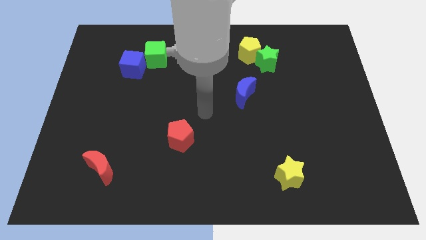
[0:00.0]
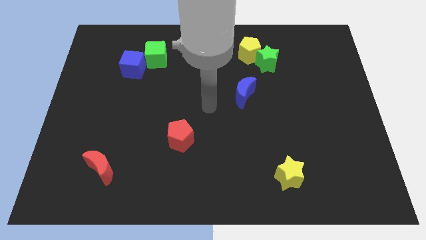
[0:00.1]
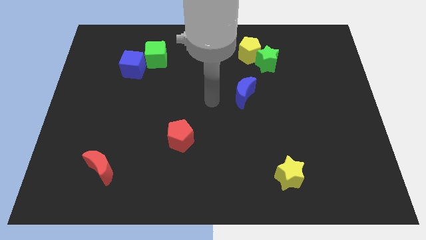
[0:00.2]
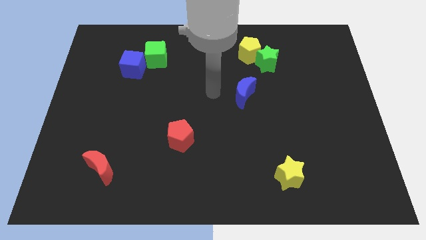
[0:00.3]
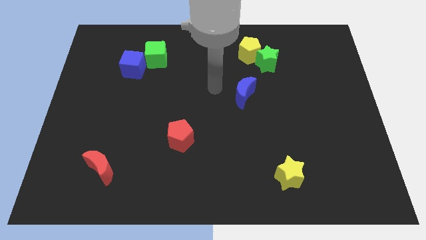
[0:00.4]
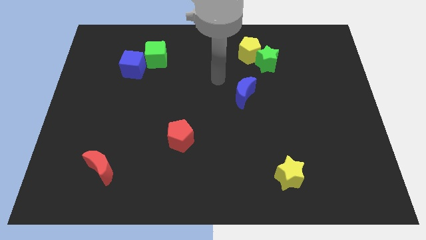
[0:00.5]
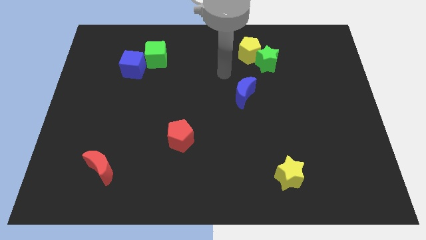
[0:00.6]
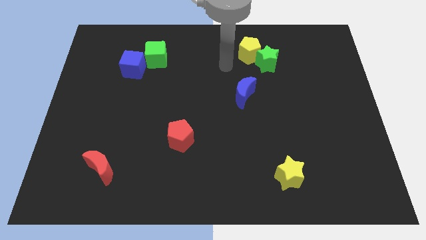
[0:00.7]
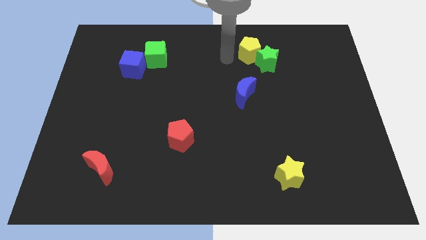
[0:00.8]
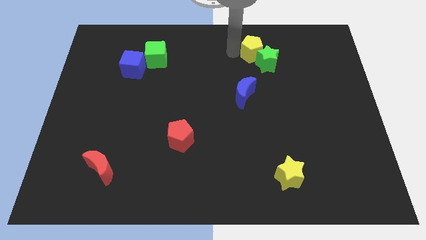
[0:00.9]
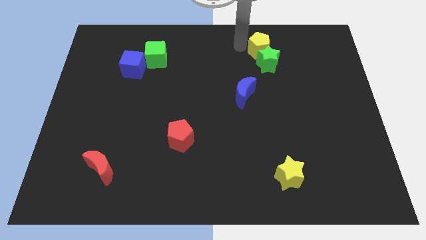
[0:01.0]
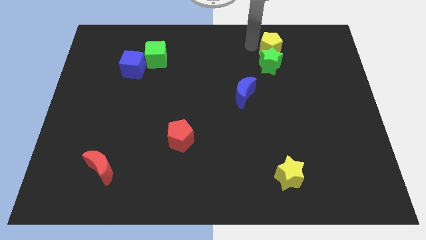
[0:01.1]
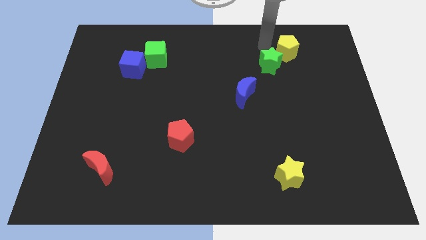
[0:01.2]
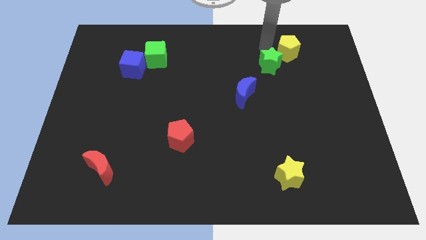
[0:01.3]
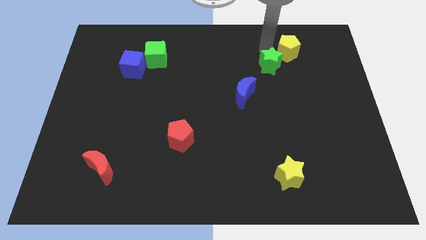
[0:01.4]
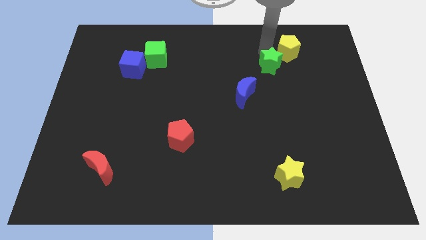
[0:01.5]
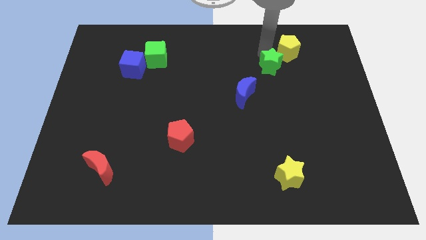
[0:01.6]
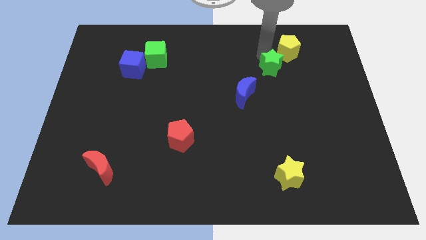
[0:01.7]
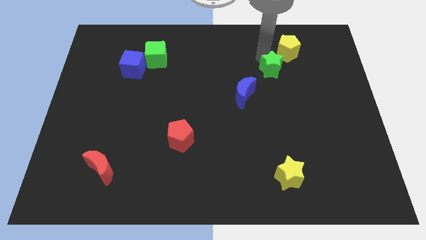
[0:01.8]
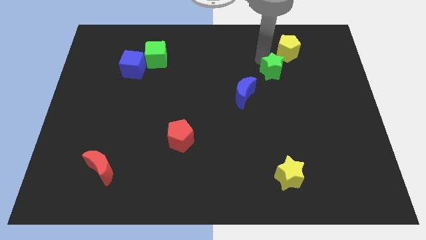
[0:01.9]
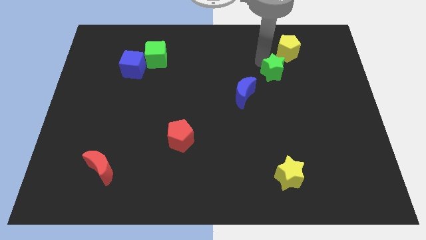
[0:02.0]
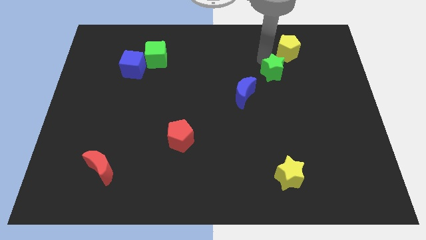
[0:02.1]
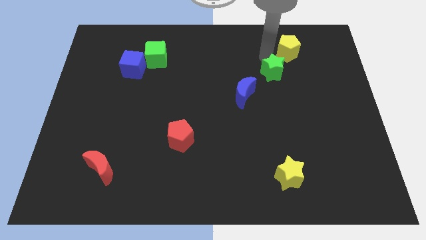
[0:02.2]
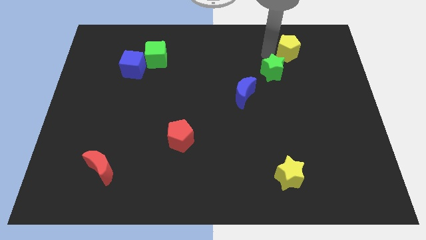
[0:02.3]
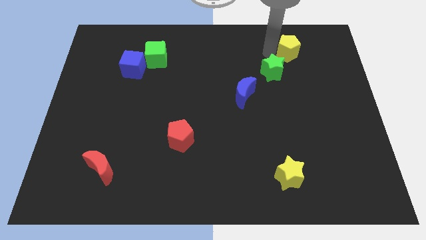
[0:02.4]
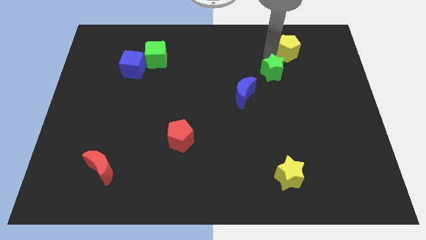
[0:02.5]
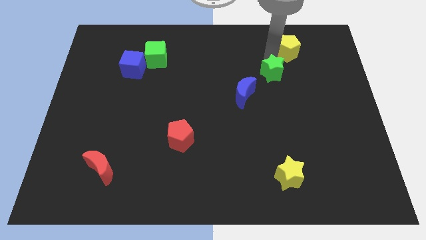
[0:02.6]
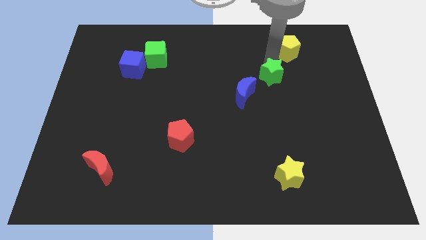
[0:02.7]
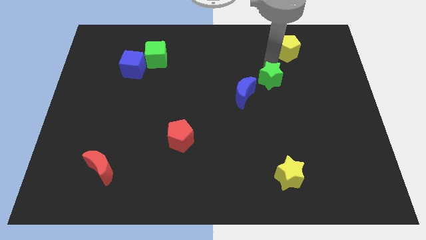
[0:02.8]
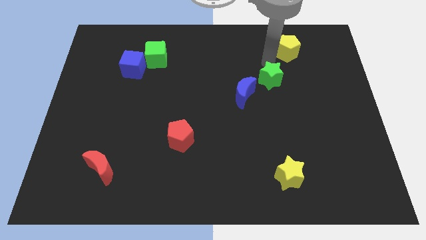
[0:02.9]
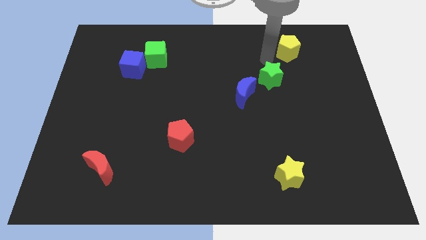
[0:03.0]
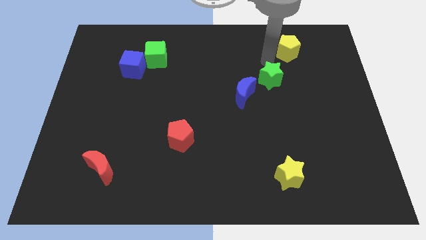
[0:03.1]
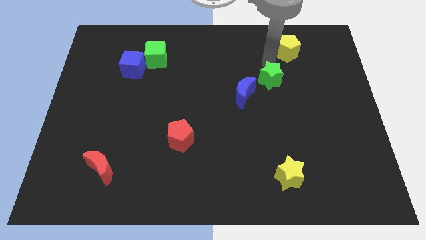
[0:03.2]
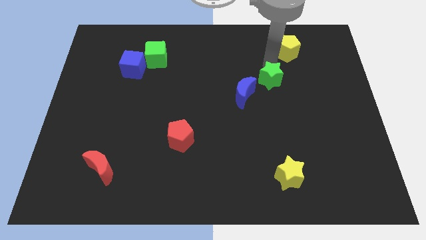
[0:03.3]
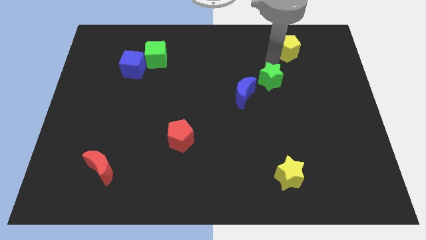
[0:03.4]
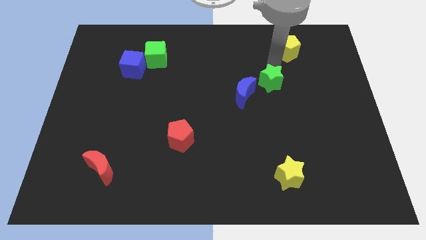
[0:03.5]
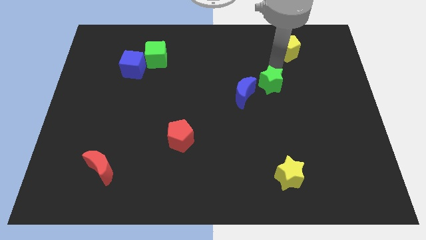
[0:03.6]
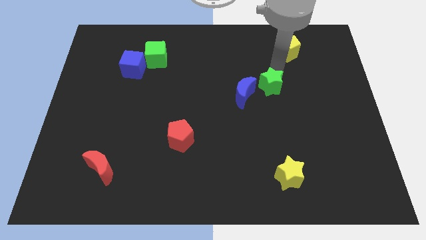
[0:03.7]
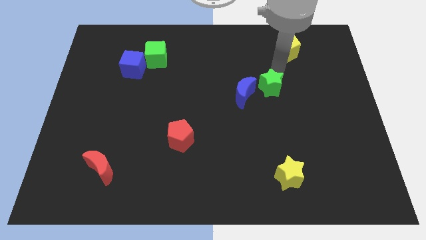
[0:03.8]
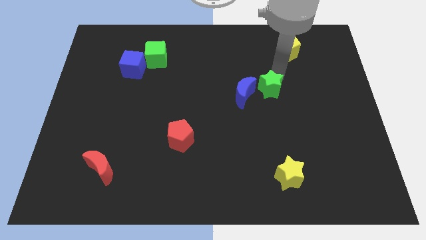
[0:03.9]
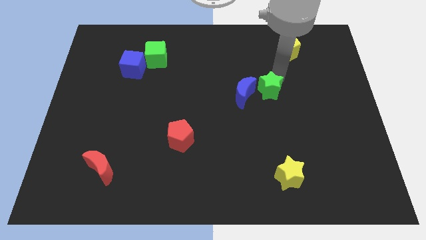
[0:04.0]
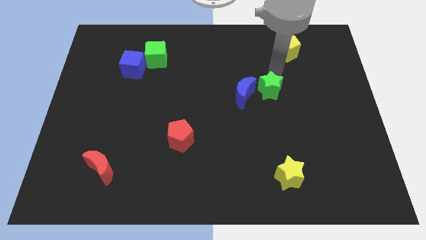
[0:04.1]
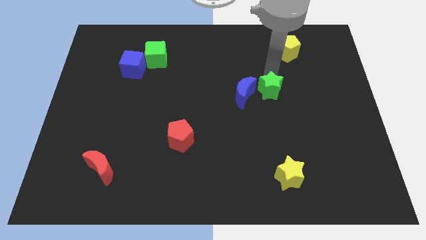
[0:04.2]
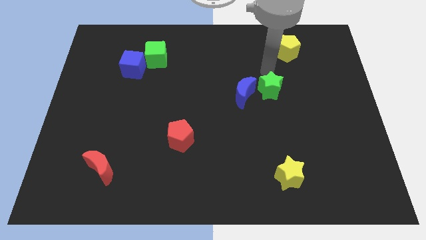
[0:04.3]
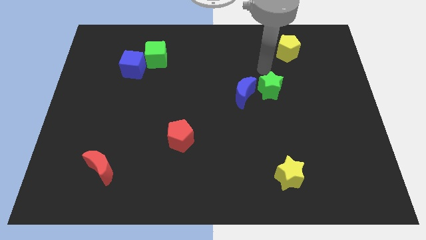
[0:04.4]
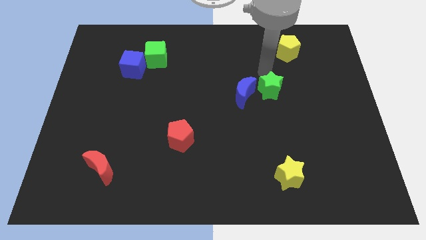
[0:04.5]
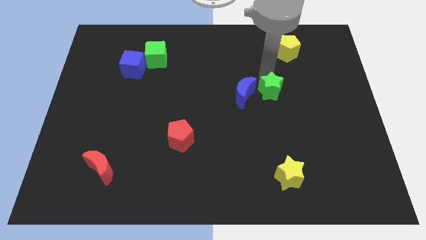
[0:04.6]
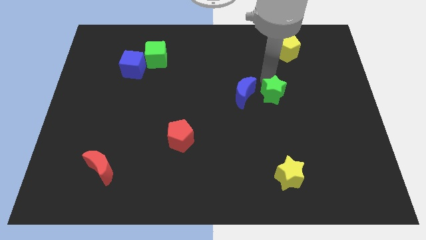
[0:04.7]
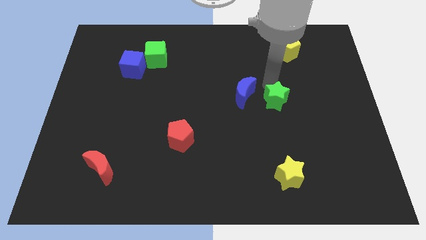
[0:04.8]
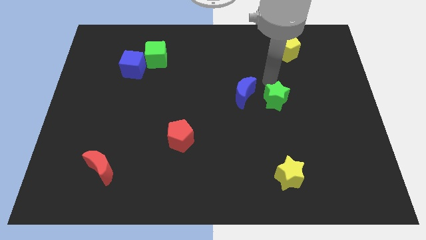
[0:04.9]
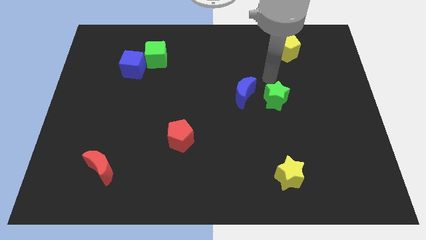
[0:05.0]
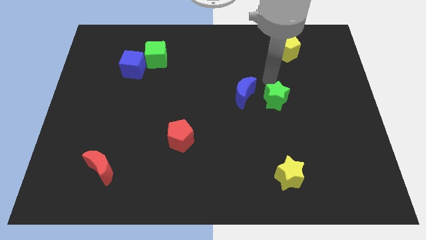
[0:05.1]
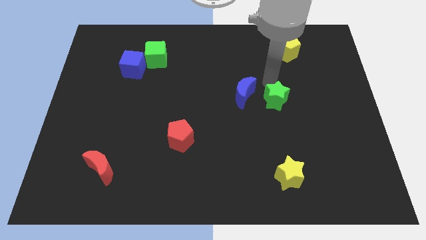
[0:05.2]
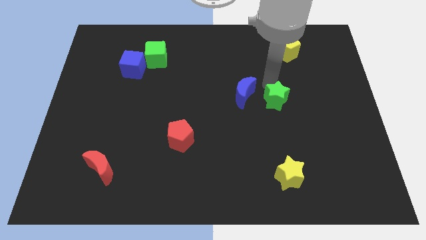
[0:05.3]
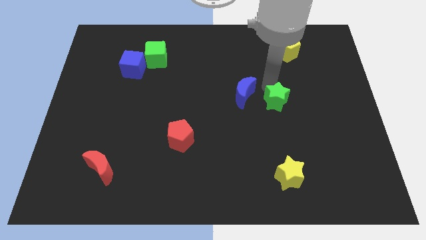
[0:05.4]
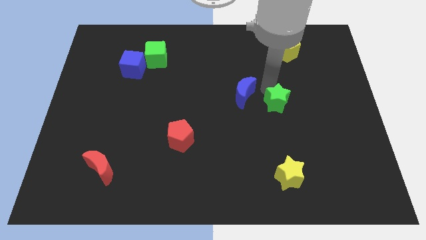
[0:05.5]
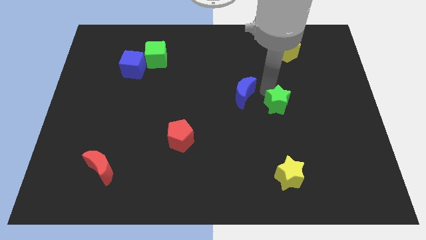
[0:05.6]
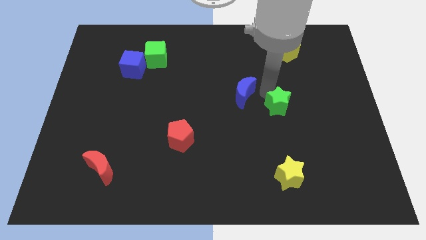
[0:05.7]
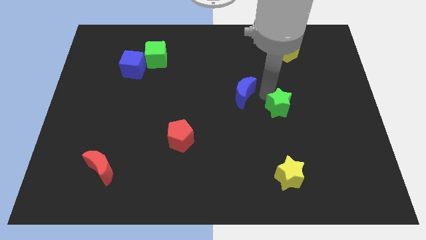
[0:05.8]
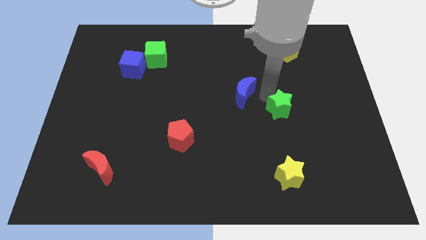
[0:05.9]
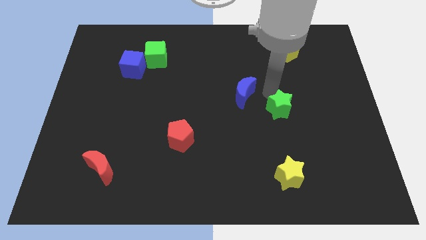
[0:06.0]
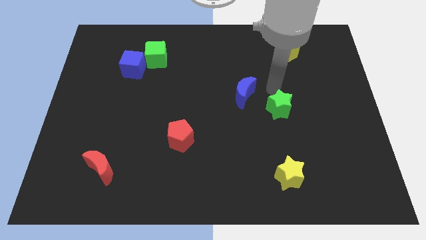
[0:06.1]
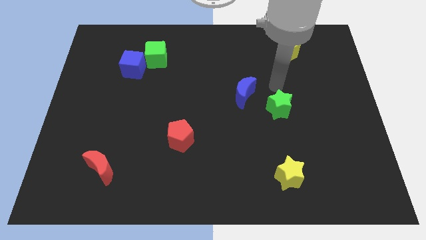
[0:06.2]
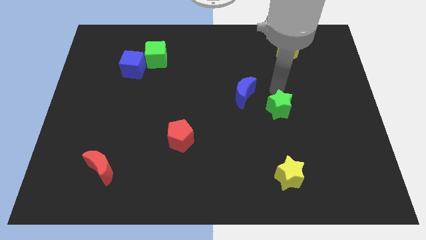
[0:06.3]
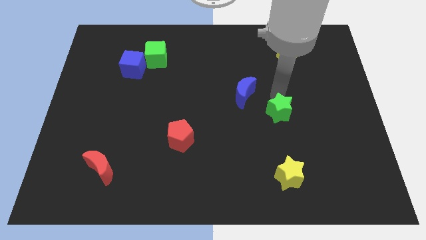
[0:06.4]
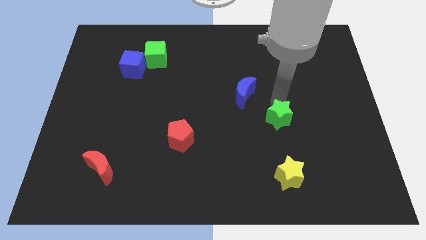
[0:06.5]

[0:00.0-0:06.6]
put the green star above the yellow star

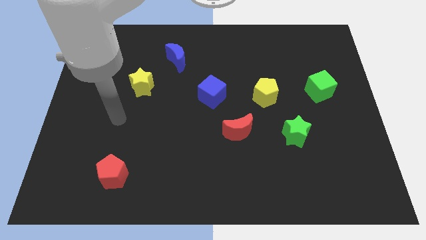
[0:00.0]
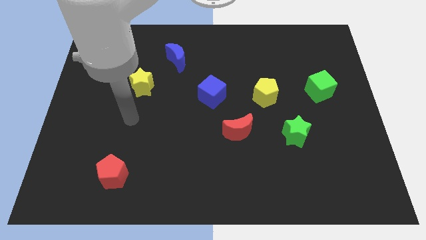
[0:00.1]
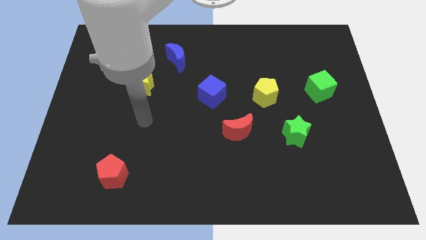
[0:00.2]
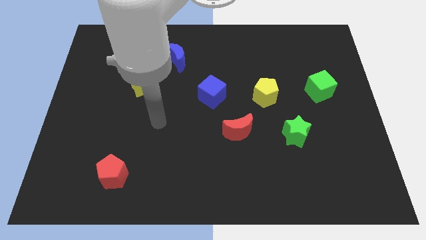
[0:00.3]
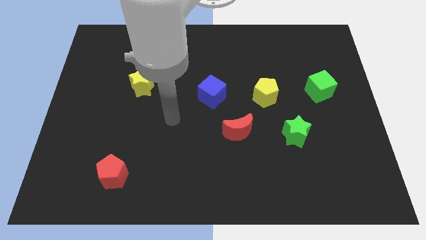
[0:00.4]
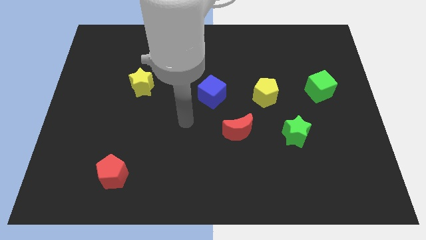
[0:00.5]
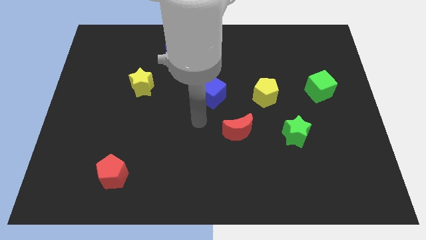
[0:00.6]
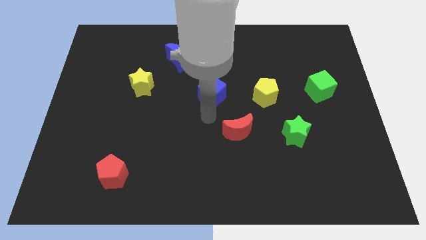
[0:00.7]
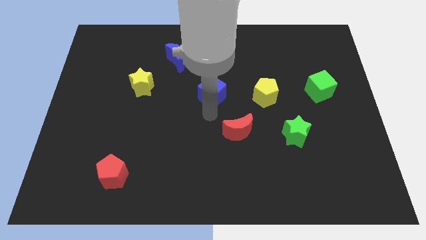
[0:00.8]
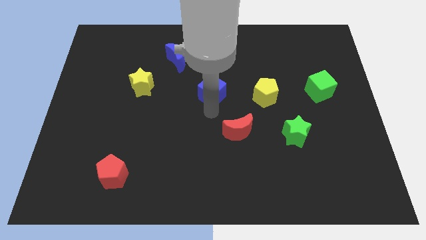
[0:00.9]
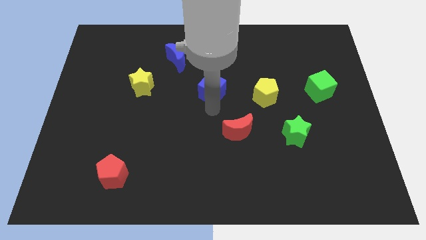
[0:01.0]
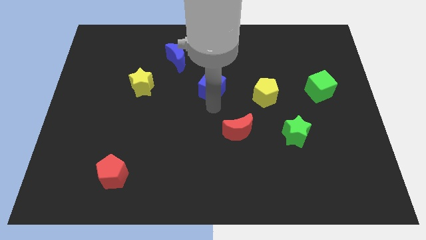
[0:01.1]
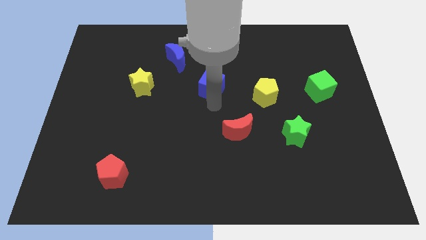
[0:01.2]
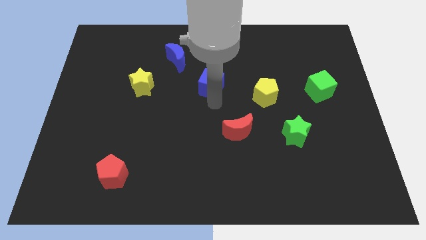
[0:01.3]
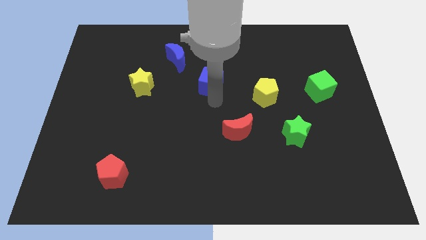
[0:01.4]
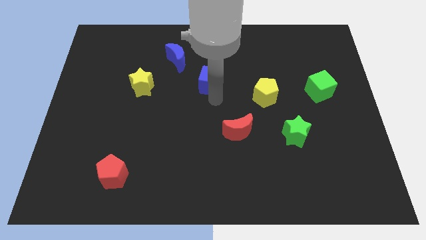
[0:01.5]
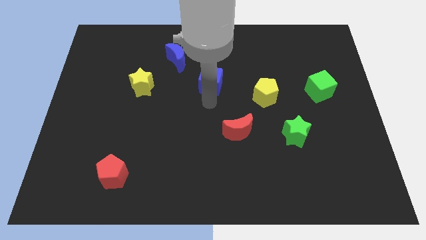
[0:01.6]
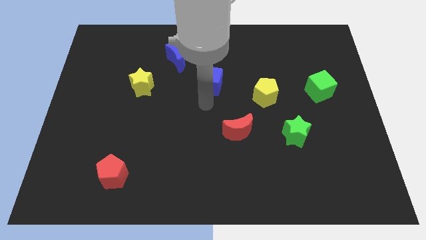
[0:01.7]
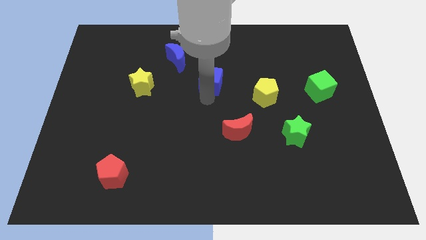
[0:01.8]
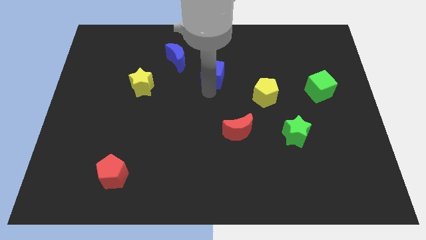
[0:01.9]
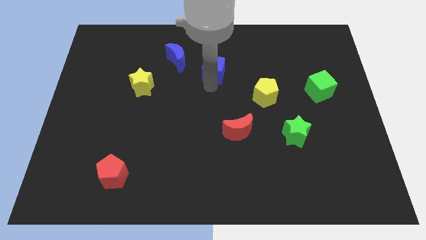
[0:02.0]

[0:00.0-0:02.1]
push the blue cube to the right of the blue moon
